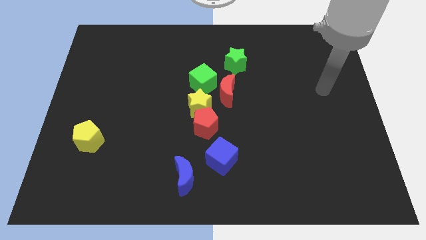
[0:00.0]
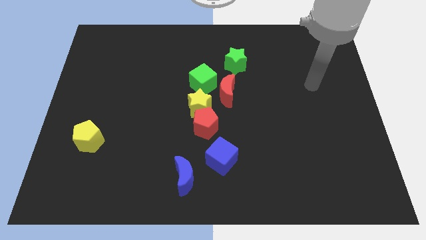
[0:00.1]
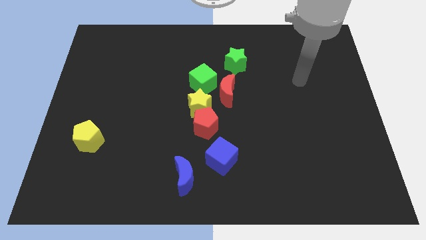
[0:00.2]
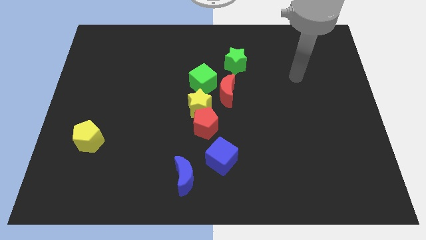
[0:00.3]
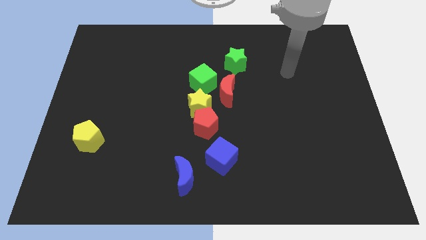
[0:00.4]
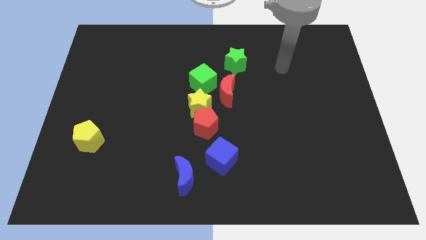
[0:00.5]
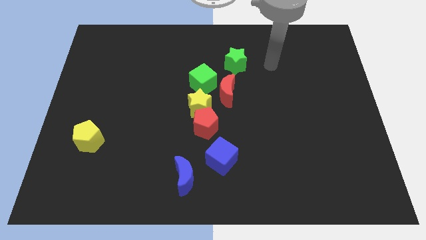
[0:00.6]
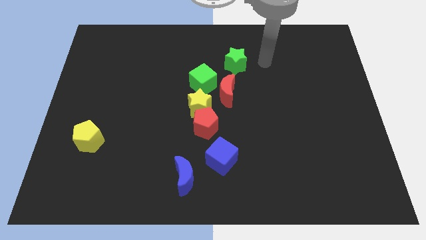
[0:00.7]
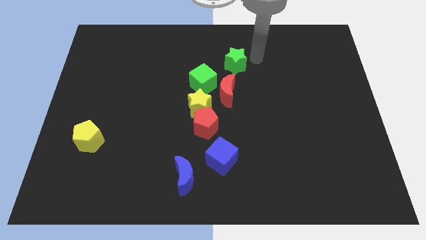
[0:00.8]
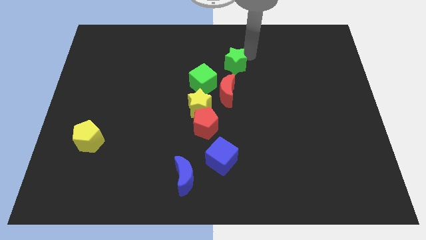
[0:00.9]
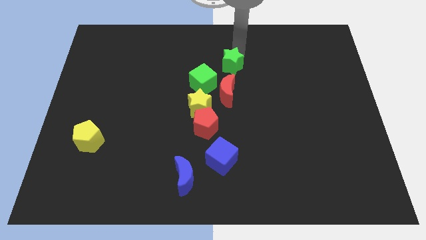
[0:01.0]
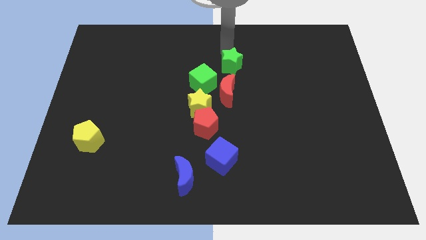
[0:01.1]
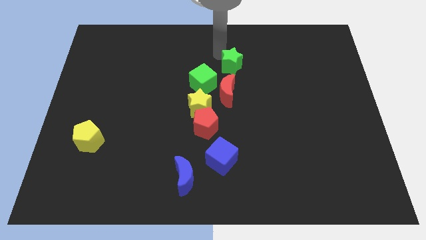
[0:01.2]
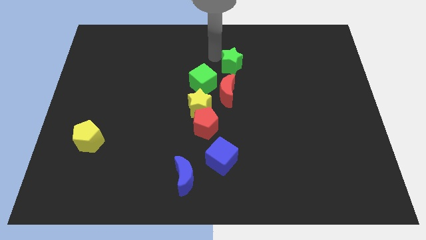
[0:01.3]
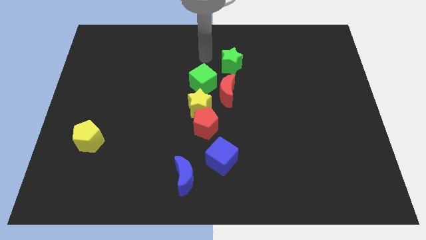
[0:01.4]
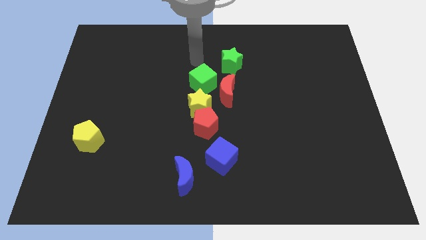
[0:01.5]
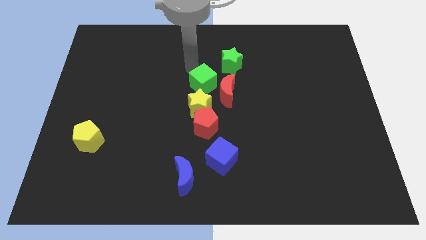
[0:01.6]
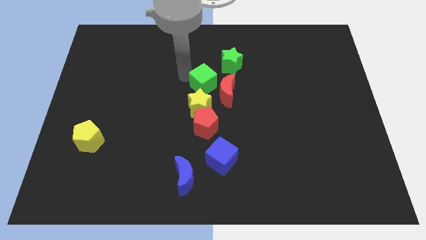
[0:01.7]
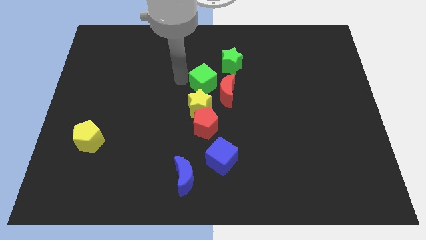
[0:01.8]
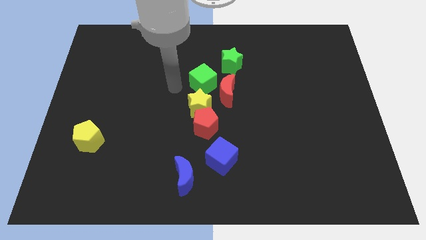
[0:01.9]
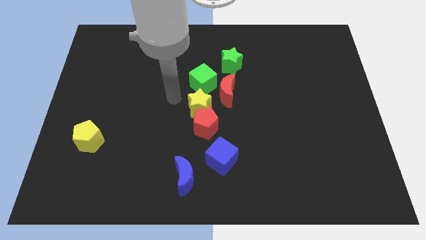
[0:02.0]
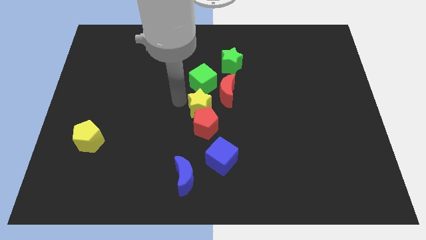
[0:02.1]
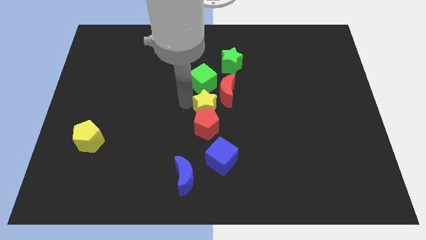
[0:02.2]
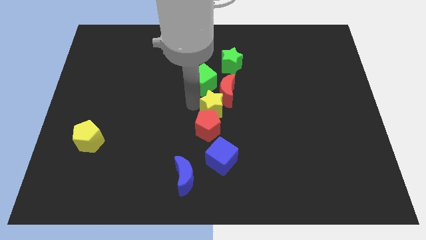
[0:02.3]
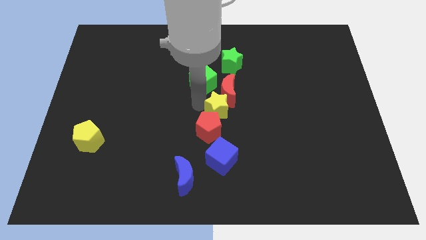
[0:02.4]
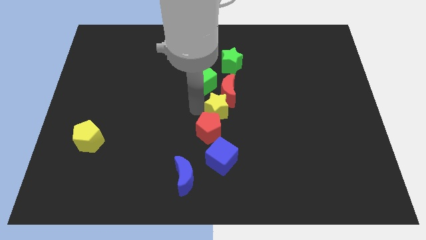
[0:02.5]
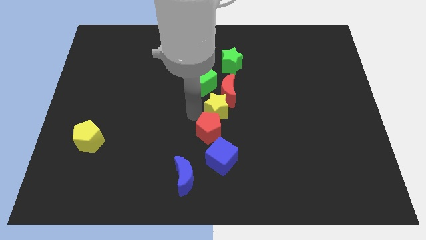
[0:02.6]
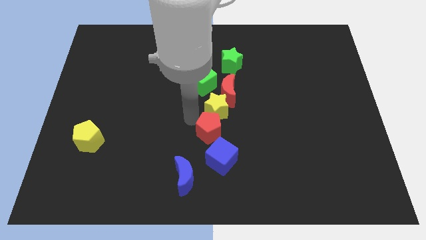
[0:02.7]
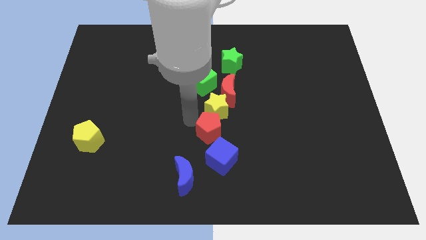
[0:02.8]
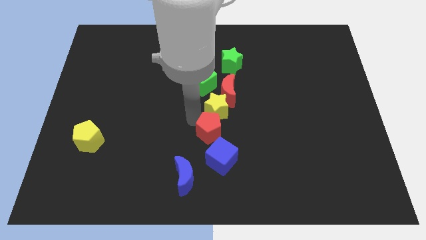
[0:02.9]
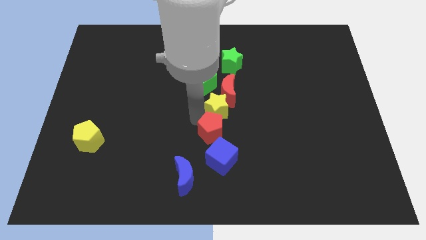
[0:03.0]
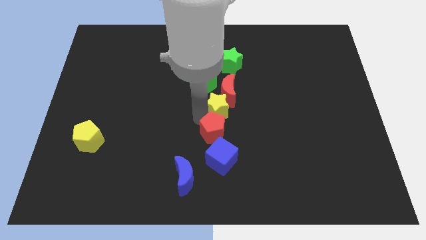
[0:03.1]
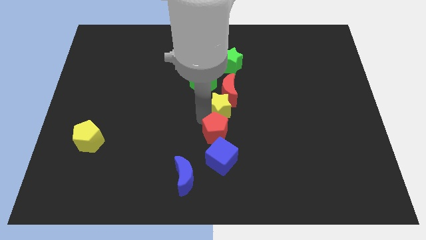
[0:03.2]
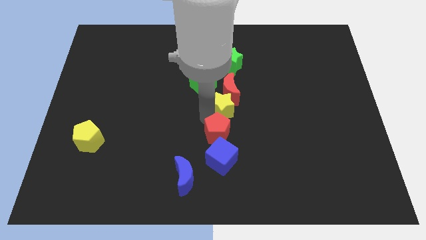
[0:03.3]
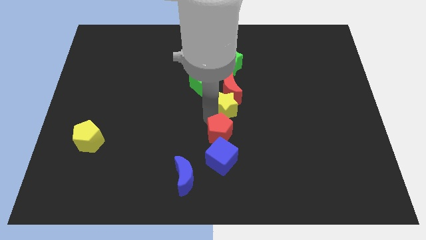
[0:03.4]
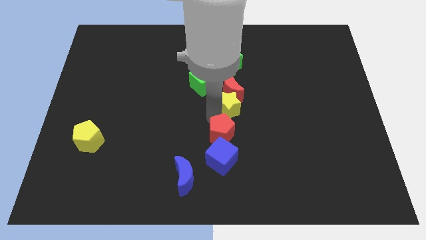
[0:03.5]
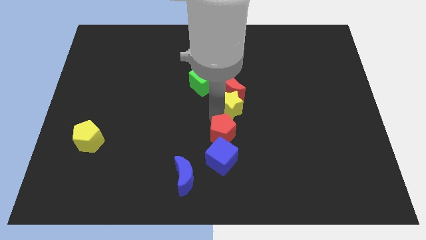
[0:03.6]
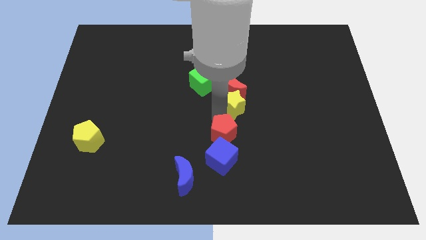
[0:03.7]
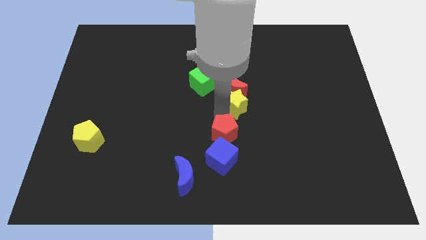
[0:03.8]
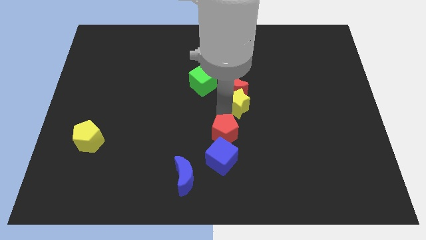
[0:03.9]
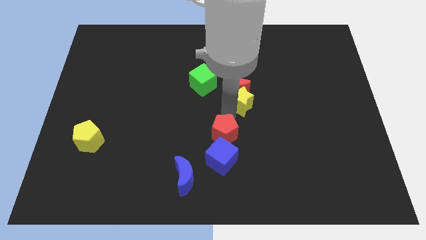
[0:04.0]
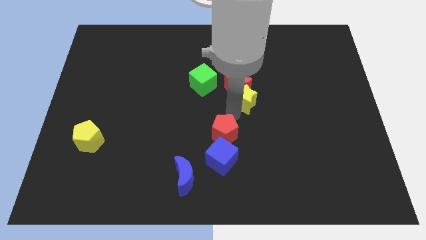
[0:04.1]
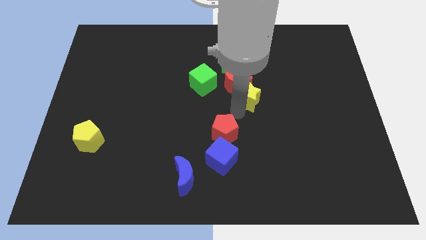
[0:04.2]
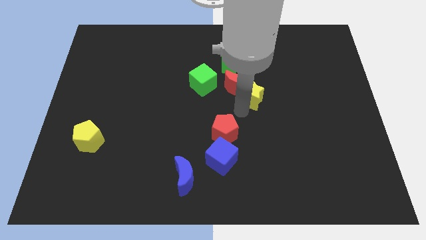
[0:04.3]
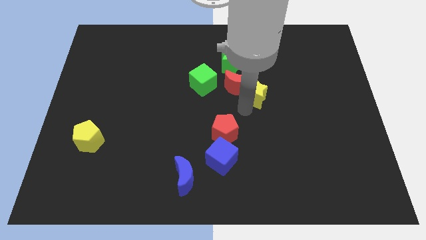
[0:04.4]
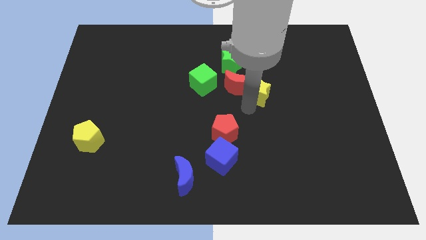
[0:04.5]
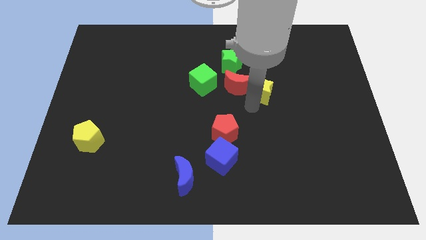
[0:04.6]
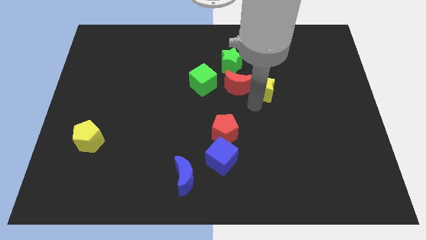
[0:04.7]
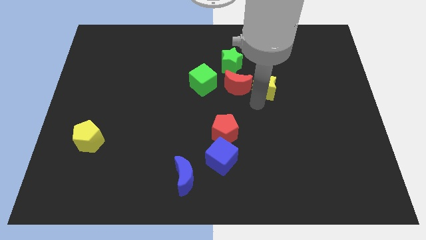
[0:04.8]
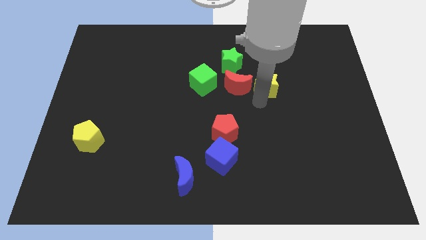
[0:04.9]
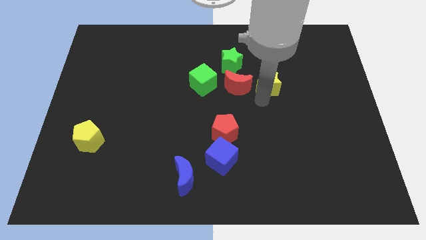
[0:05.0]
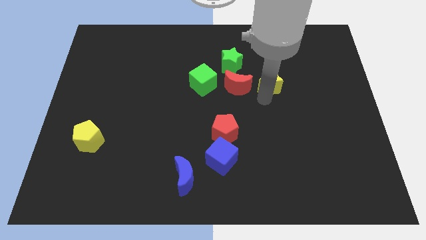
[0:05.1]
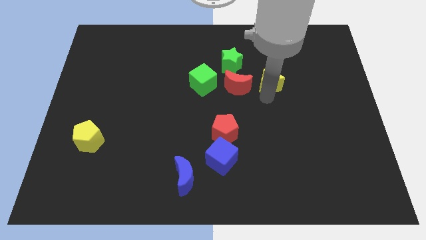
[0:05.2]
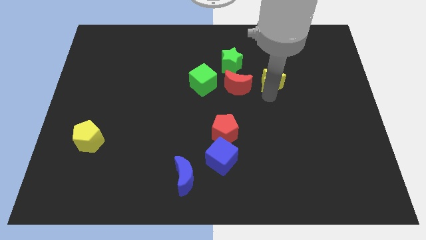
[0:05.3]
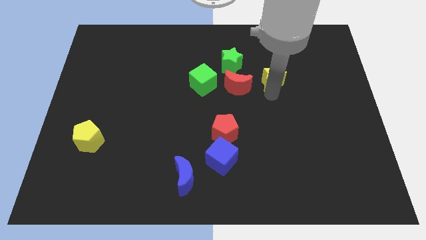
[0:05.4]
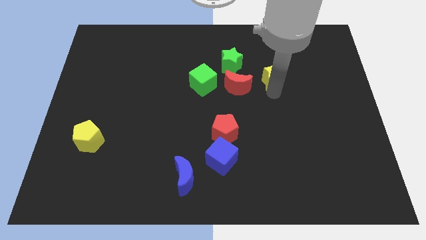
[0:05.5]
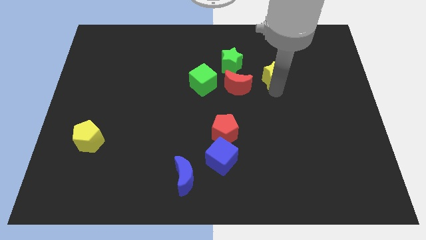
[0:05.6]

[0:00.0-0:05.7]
slide the yellow star to the top right side of the red moon
